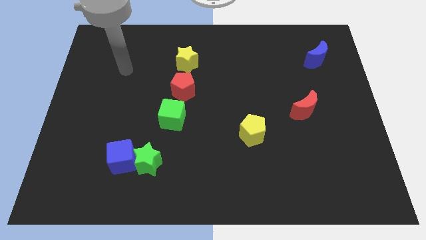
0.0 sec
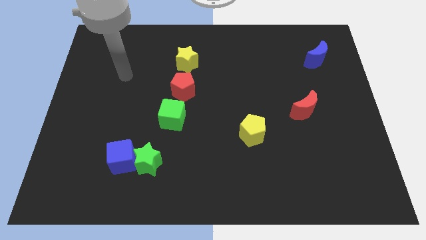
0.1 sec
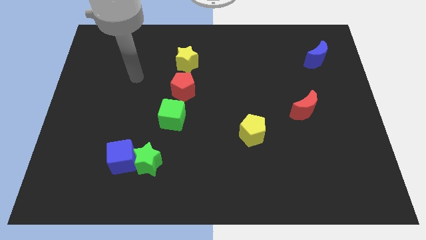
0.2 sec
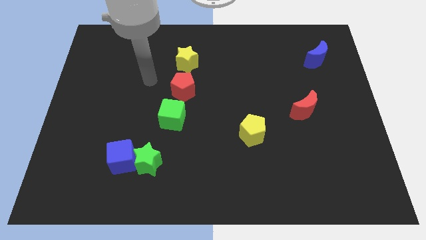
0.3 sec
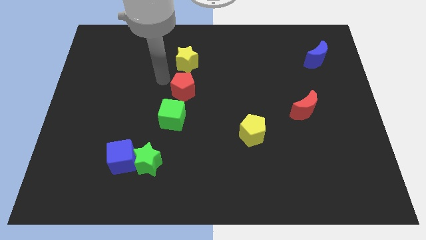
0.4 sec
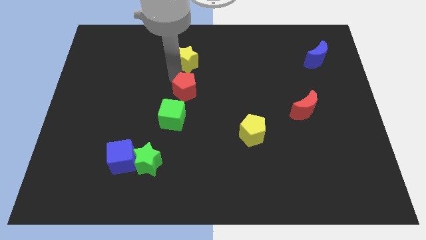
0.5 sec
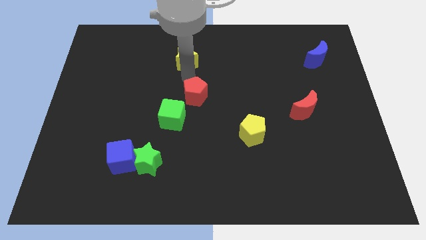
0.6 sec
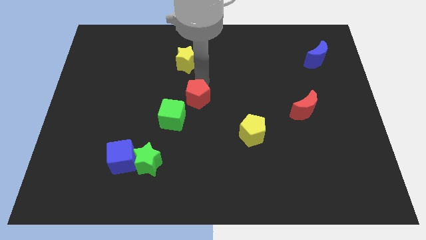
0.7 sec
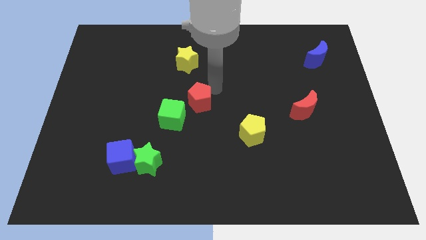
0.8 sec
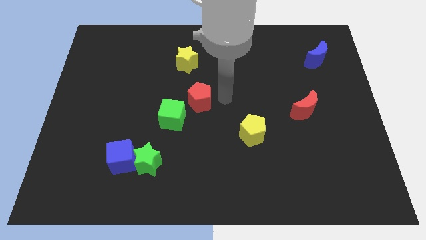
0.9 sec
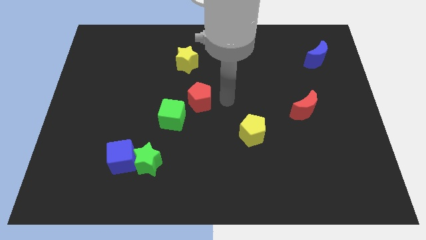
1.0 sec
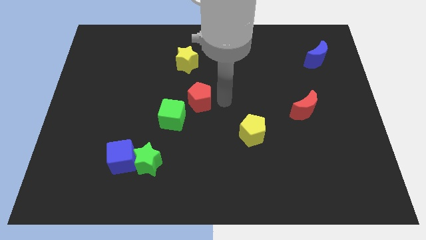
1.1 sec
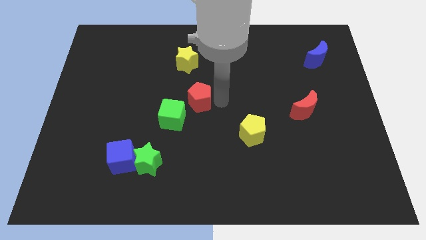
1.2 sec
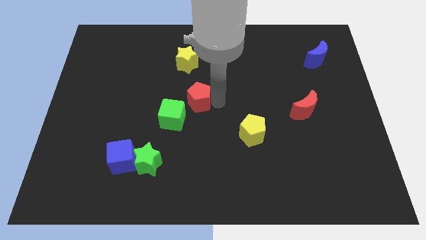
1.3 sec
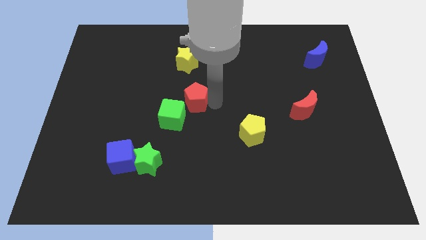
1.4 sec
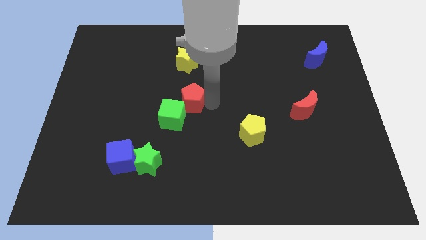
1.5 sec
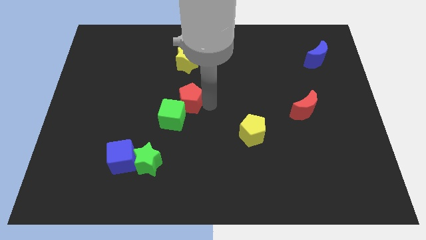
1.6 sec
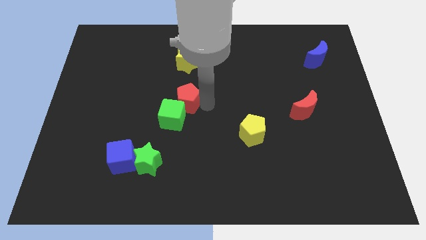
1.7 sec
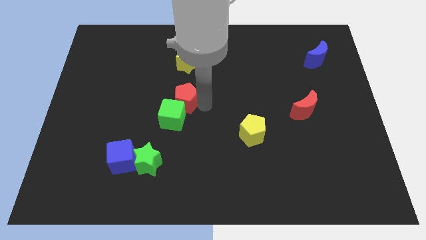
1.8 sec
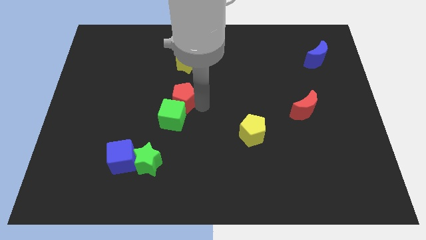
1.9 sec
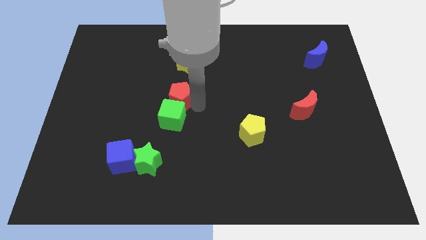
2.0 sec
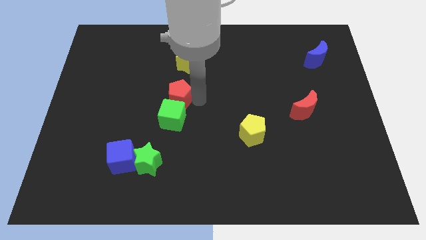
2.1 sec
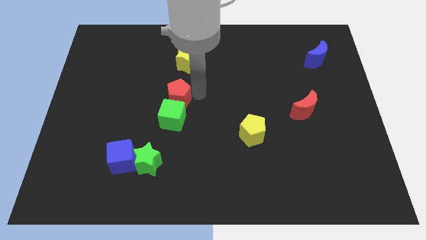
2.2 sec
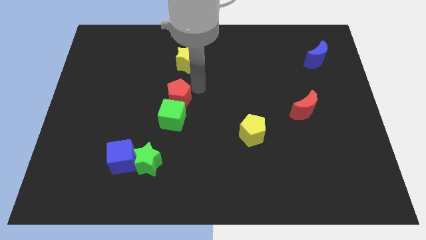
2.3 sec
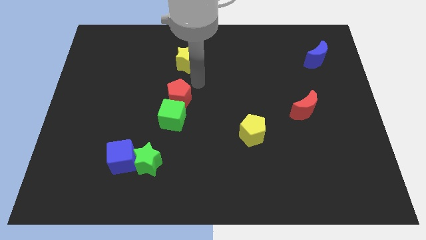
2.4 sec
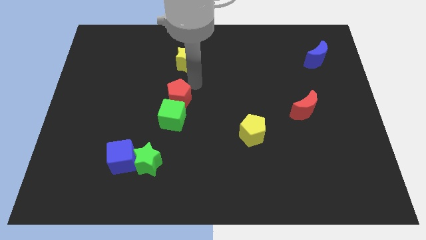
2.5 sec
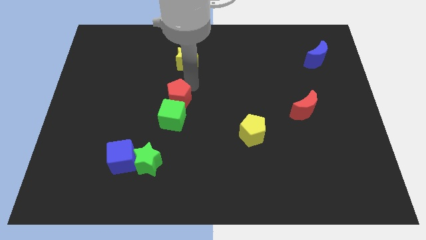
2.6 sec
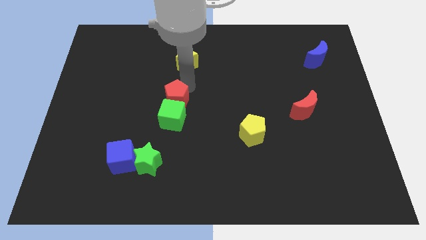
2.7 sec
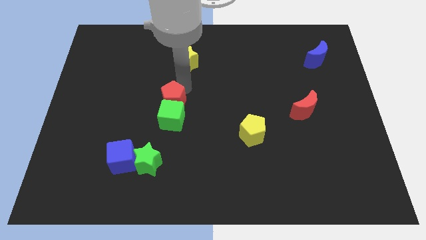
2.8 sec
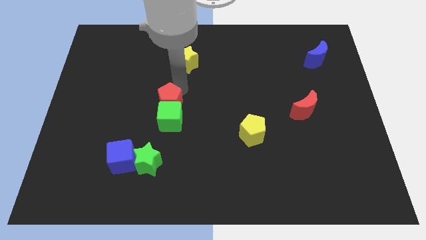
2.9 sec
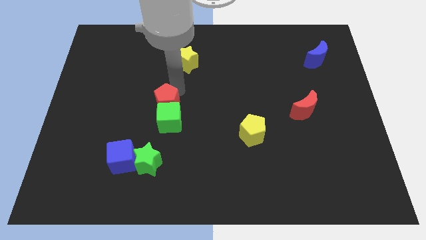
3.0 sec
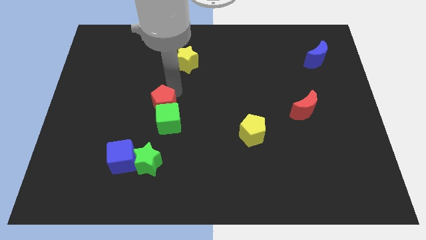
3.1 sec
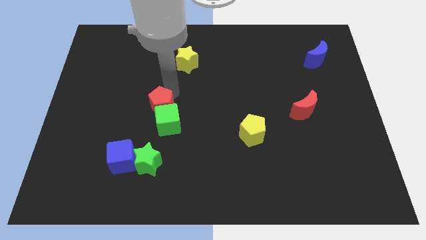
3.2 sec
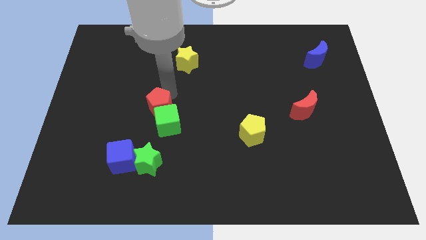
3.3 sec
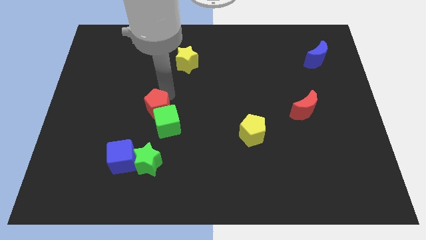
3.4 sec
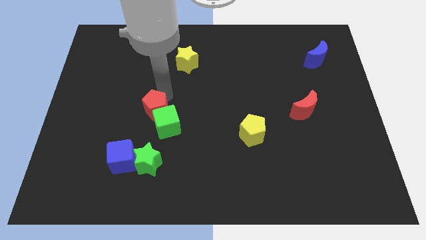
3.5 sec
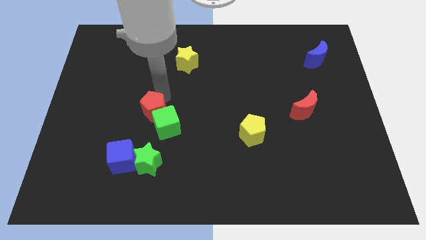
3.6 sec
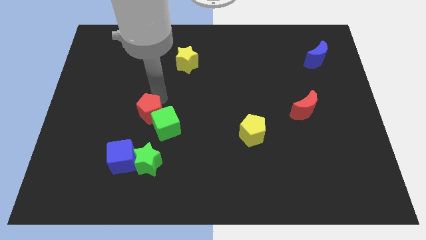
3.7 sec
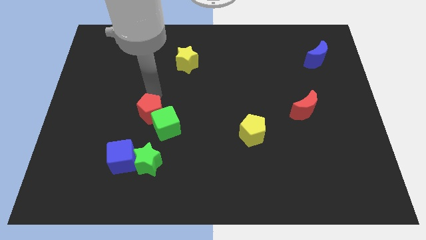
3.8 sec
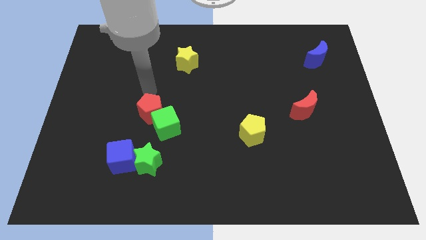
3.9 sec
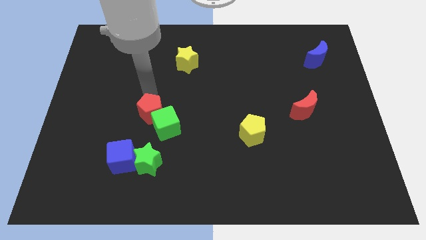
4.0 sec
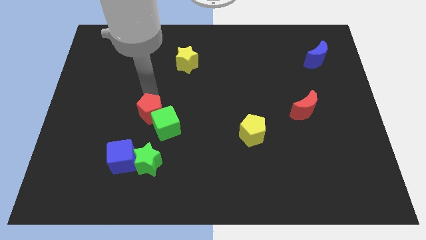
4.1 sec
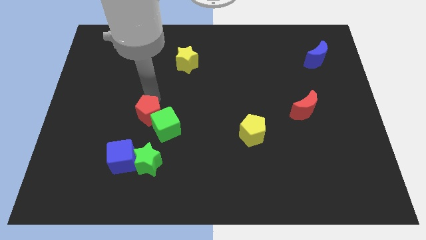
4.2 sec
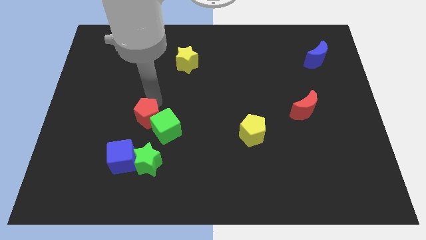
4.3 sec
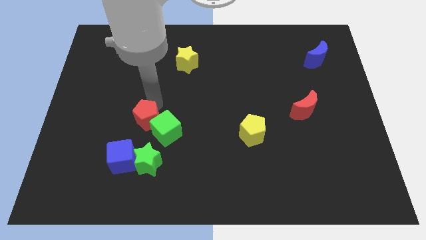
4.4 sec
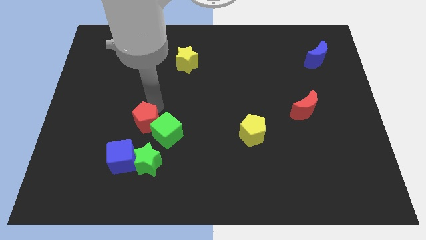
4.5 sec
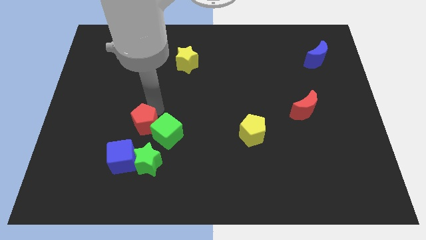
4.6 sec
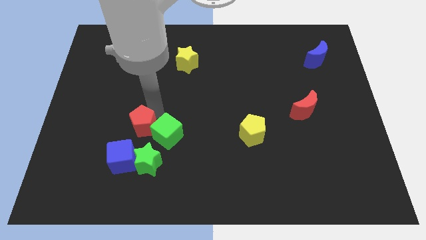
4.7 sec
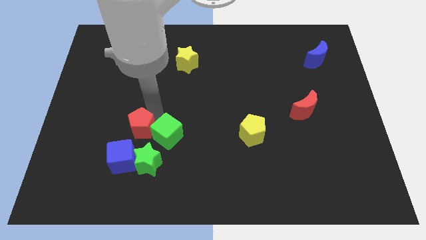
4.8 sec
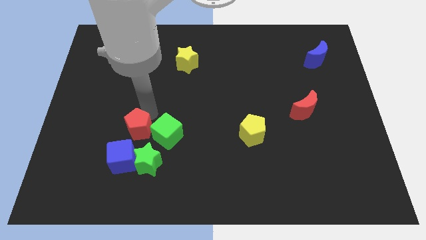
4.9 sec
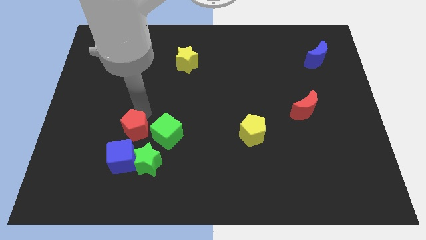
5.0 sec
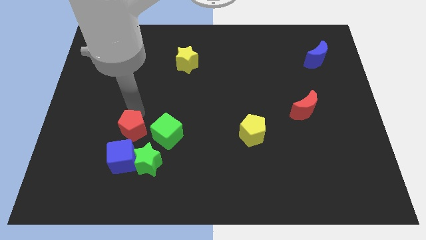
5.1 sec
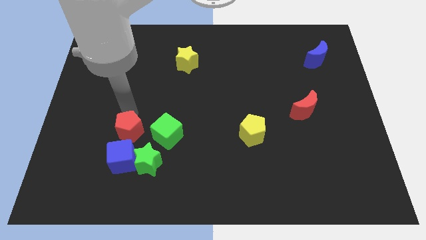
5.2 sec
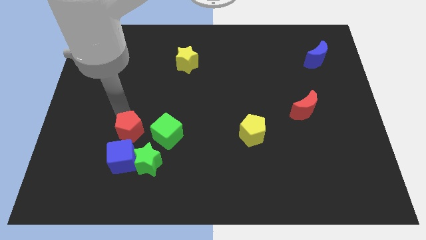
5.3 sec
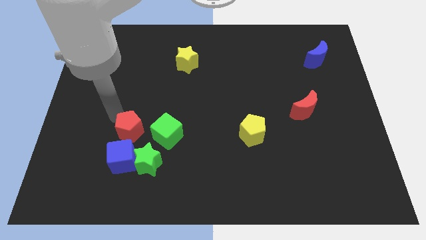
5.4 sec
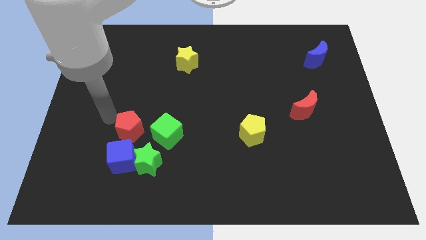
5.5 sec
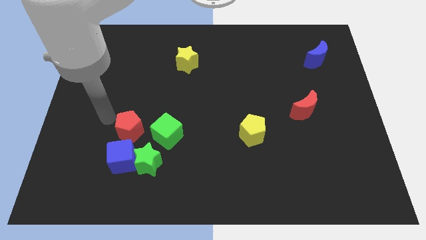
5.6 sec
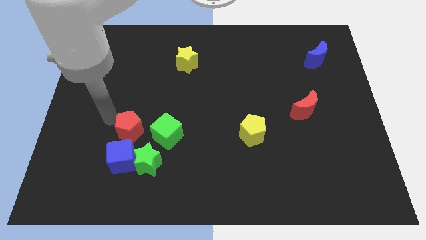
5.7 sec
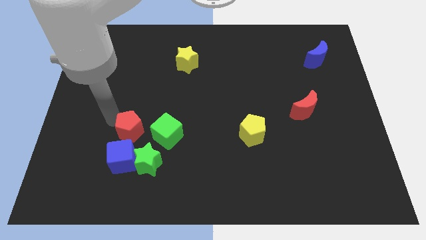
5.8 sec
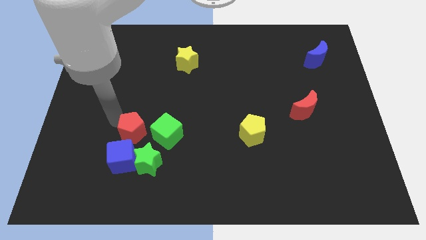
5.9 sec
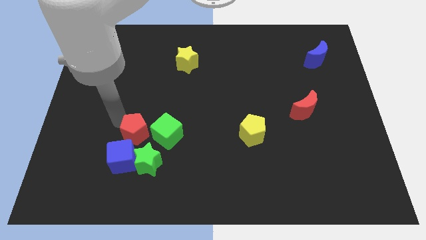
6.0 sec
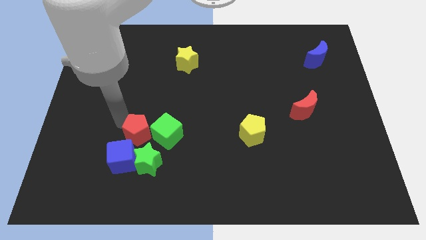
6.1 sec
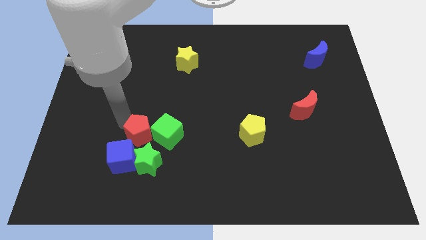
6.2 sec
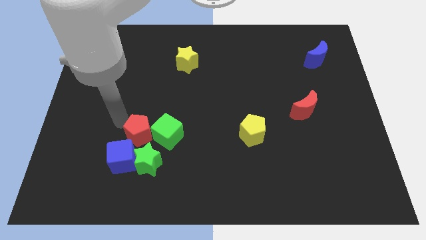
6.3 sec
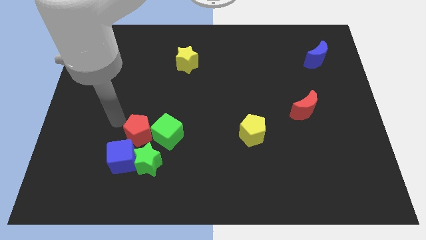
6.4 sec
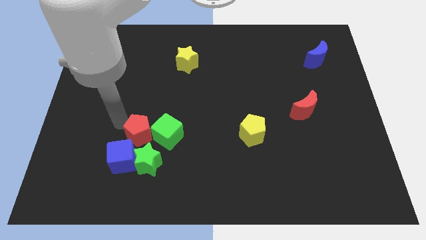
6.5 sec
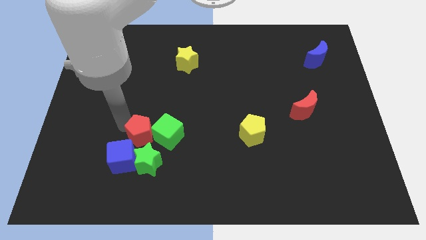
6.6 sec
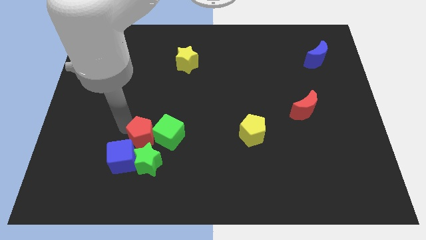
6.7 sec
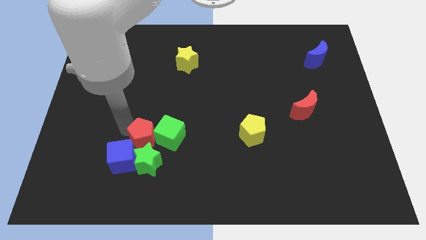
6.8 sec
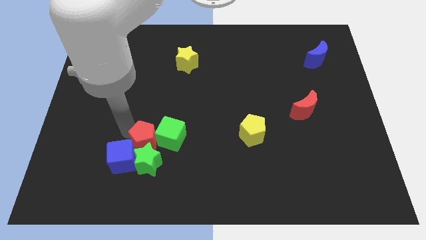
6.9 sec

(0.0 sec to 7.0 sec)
put the red pentagon towards the green star

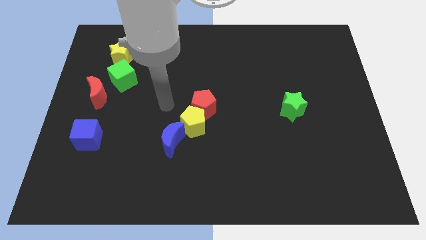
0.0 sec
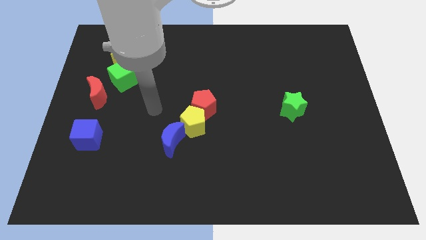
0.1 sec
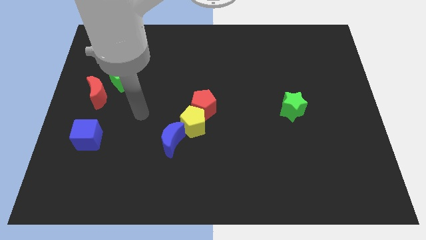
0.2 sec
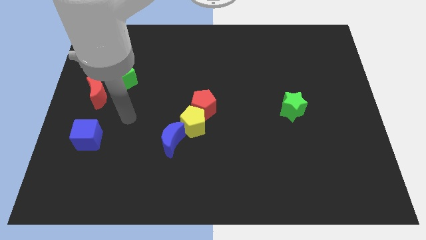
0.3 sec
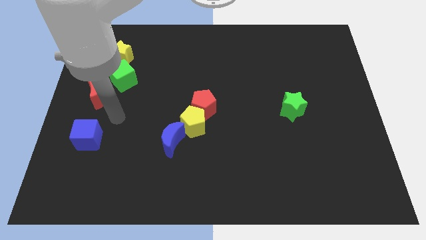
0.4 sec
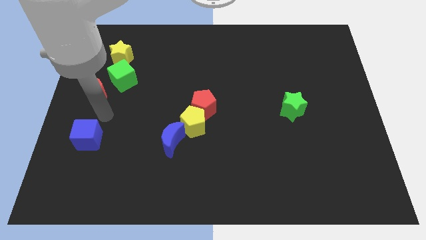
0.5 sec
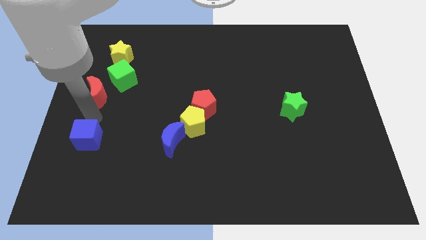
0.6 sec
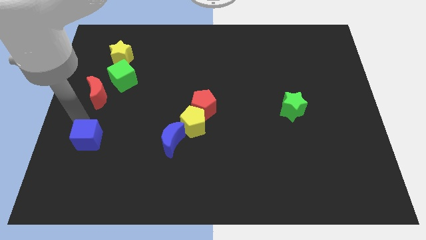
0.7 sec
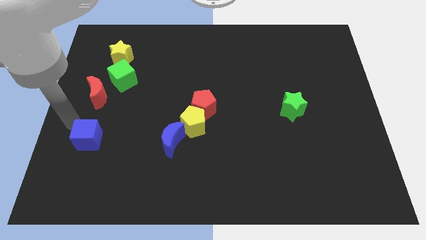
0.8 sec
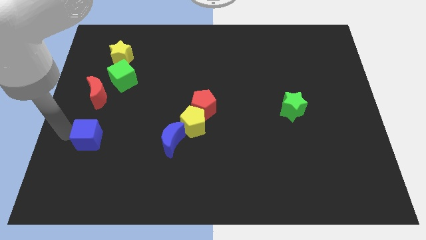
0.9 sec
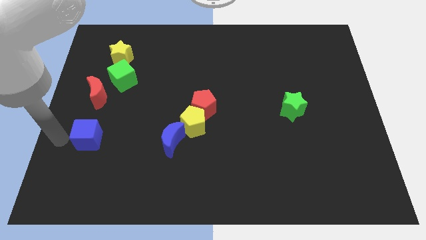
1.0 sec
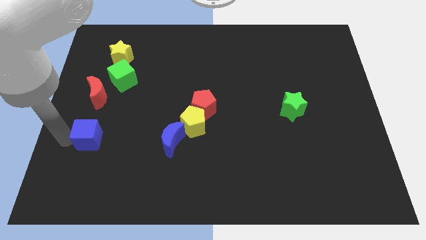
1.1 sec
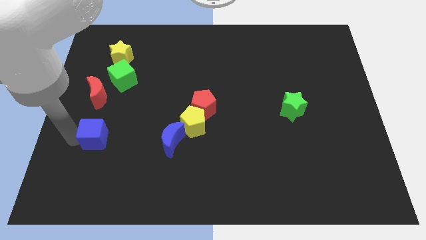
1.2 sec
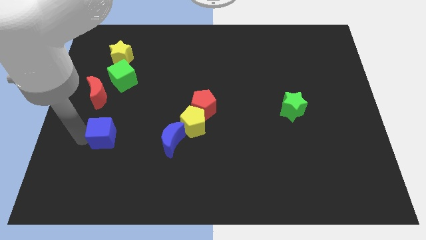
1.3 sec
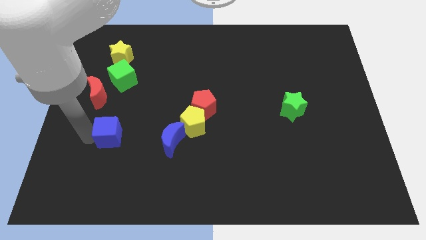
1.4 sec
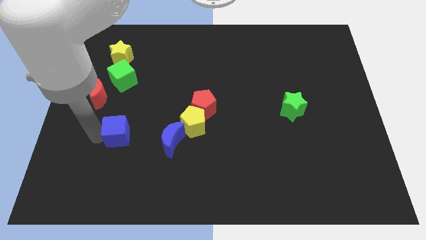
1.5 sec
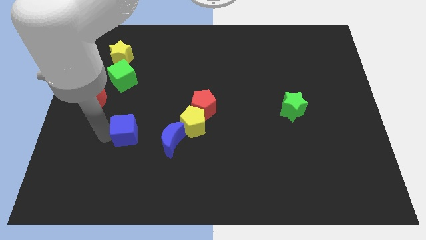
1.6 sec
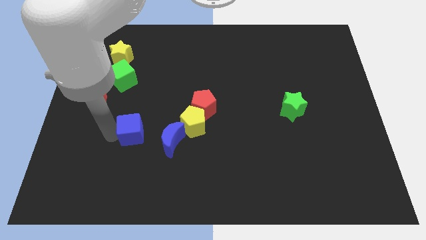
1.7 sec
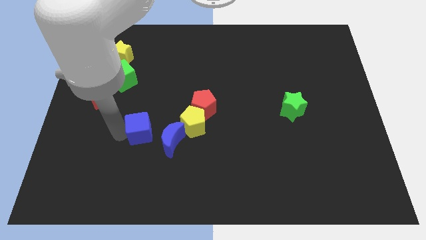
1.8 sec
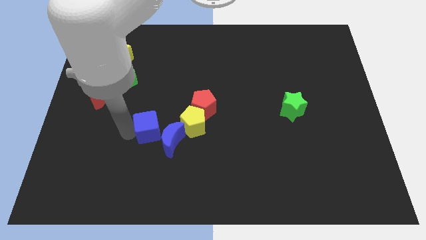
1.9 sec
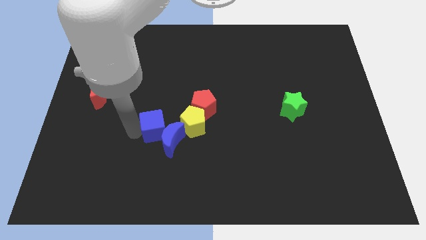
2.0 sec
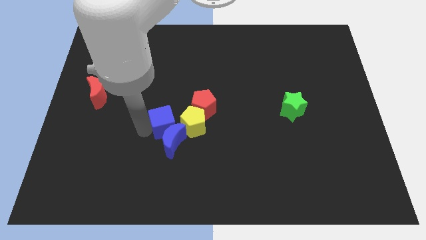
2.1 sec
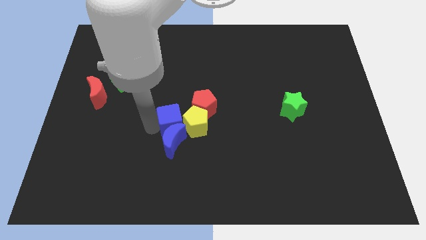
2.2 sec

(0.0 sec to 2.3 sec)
slide the blue cube towards the yellow pentagon
